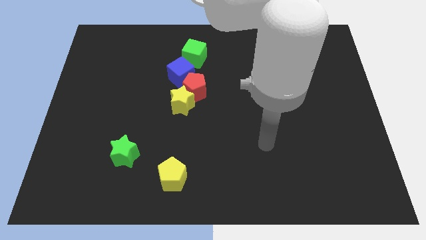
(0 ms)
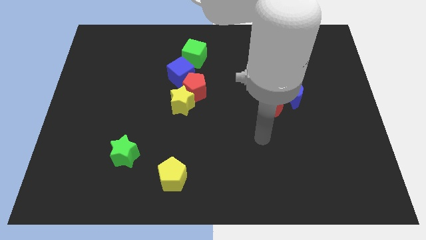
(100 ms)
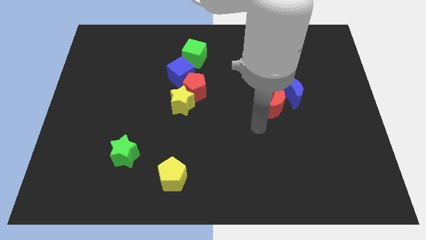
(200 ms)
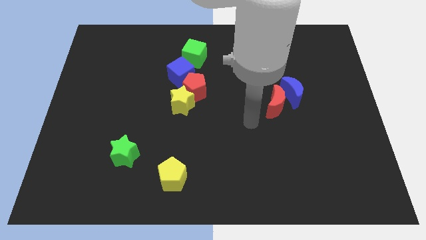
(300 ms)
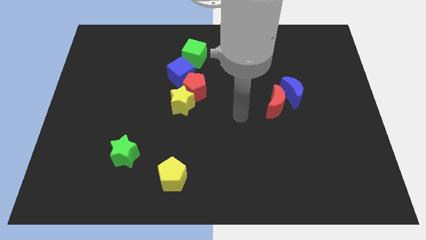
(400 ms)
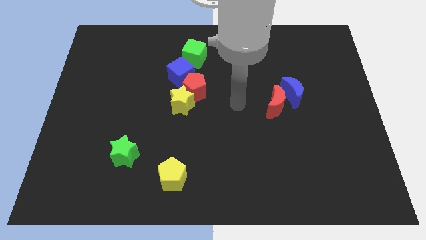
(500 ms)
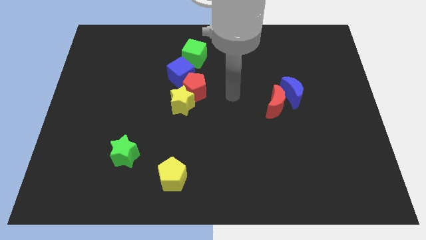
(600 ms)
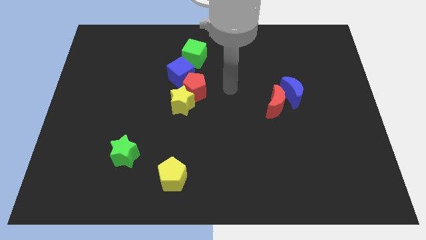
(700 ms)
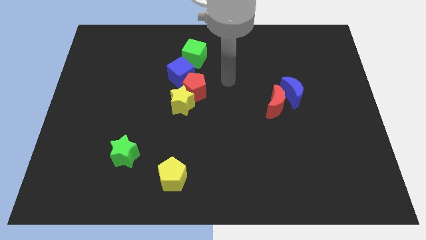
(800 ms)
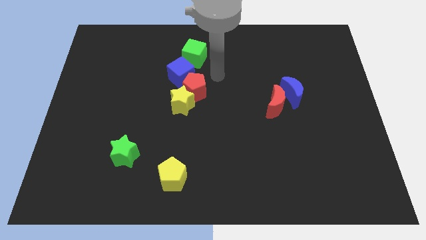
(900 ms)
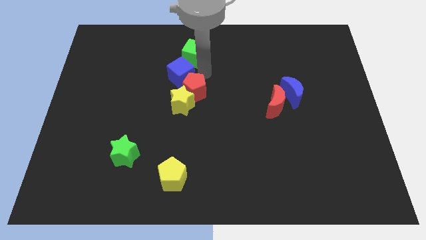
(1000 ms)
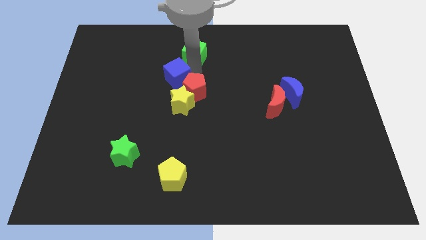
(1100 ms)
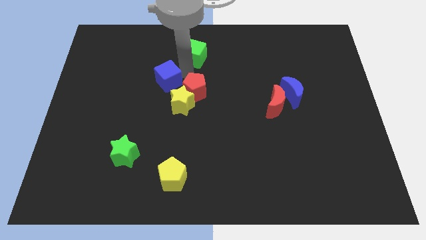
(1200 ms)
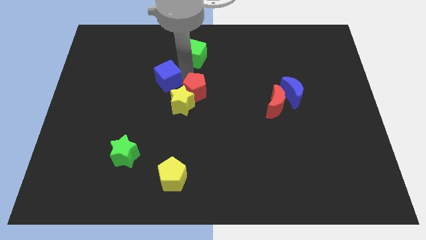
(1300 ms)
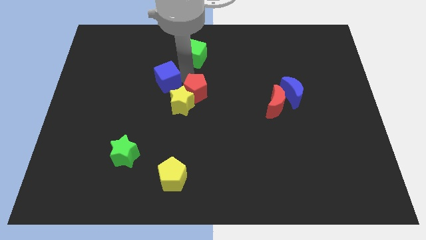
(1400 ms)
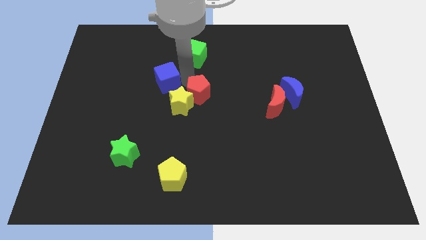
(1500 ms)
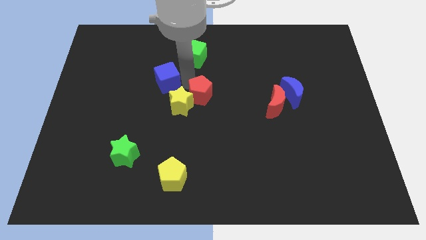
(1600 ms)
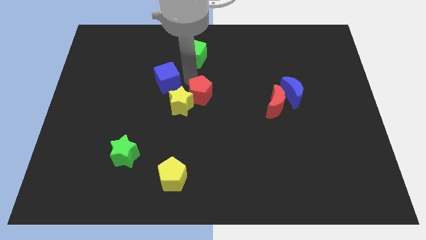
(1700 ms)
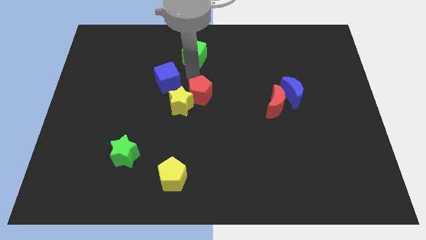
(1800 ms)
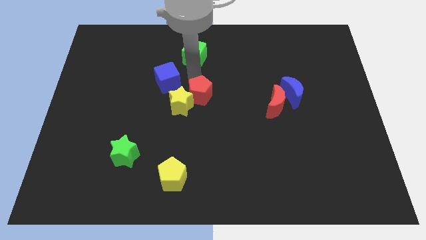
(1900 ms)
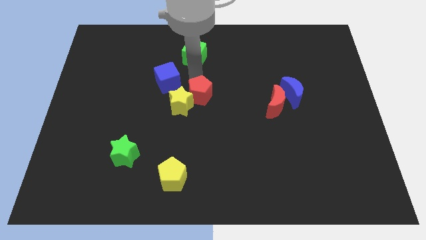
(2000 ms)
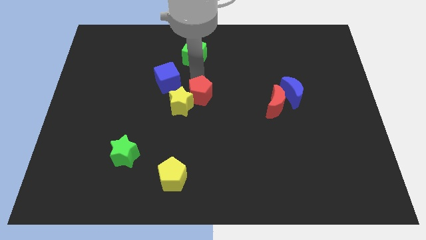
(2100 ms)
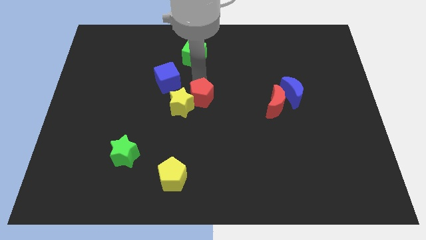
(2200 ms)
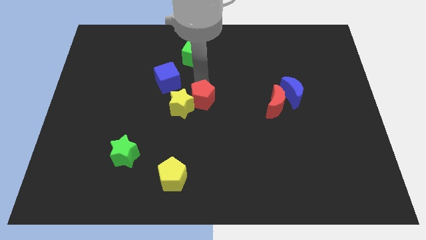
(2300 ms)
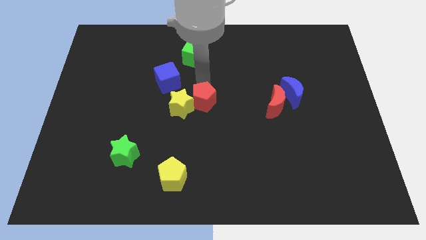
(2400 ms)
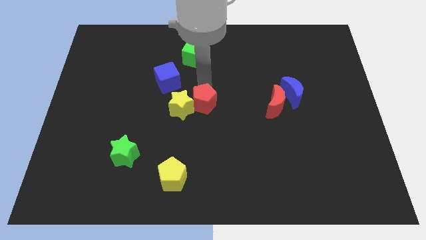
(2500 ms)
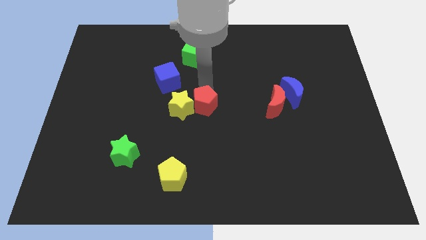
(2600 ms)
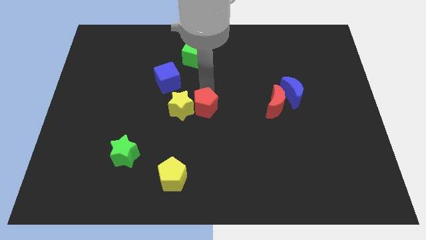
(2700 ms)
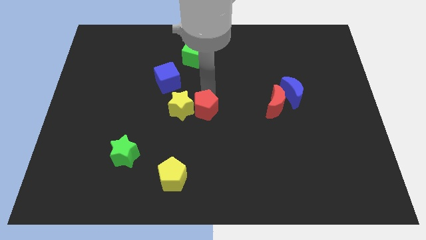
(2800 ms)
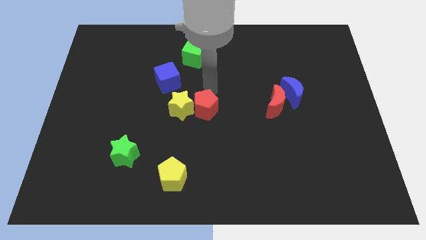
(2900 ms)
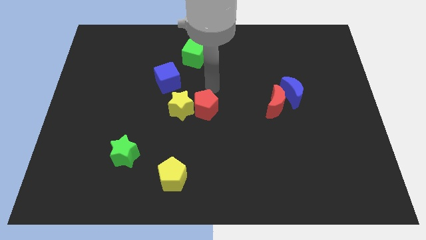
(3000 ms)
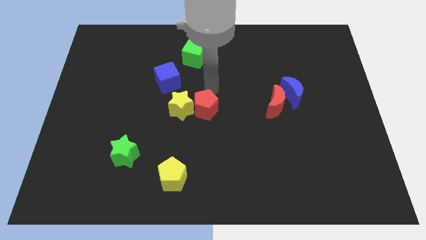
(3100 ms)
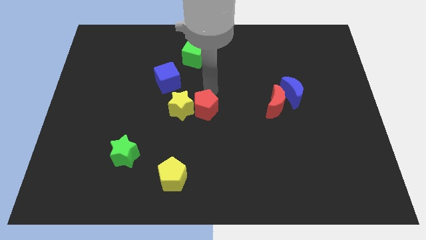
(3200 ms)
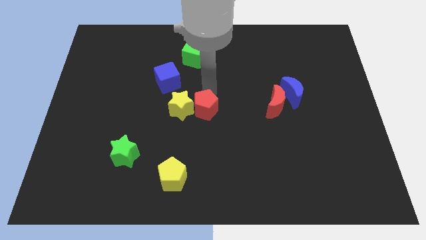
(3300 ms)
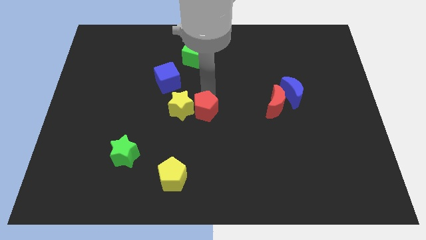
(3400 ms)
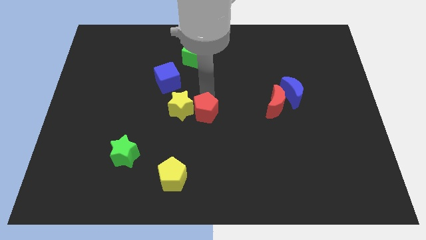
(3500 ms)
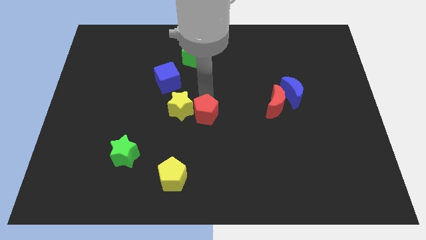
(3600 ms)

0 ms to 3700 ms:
slide the red pentagon downwards a little bit

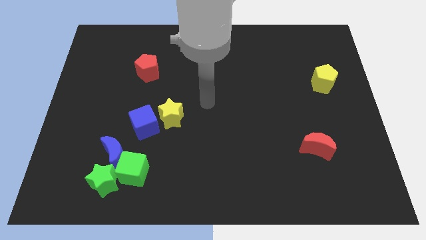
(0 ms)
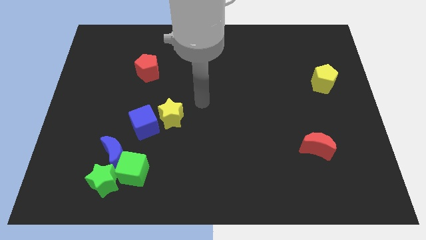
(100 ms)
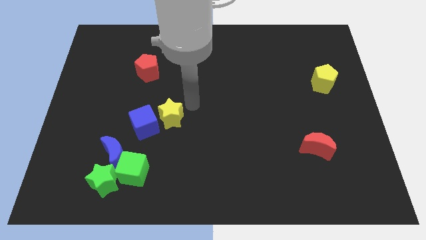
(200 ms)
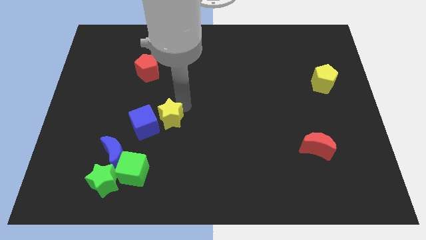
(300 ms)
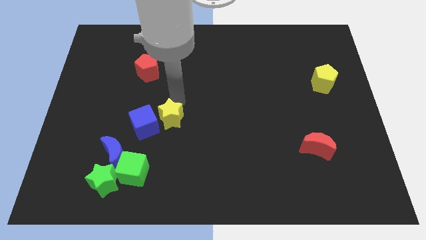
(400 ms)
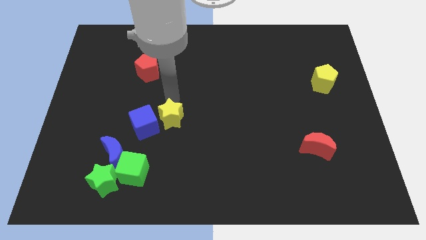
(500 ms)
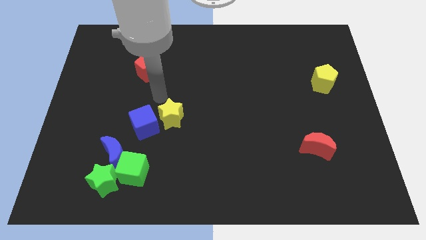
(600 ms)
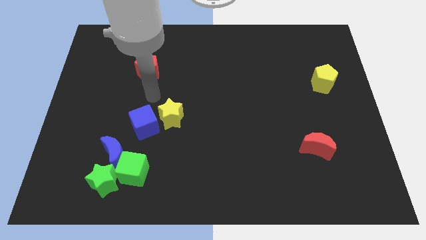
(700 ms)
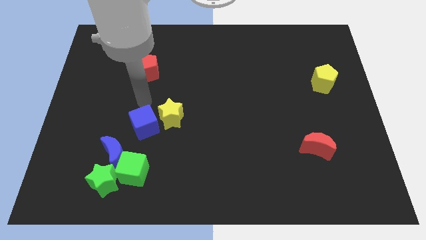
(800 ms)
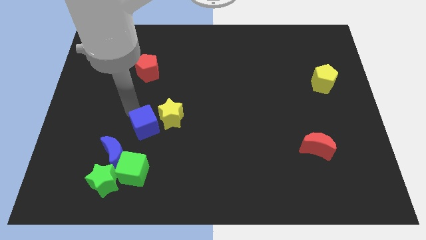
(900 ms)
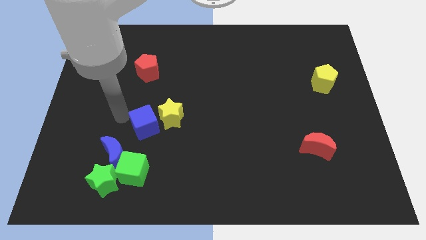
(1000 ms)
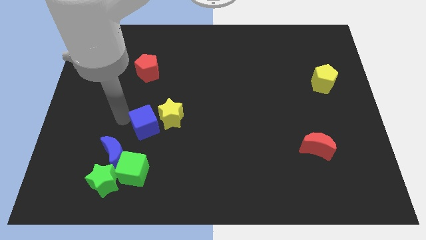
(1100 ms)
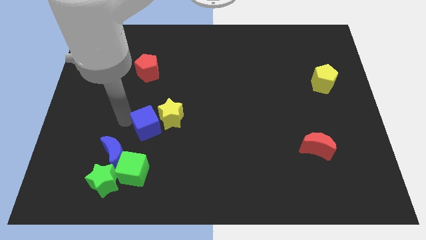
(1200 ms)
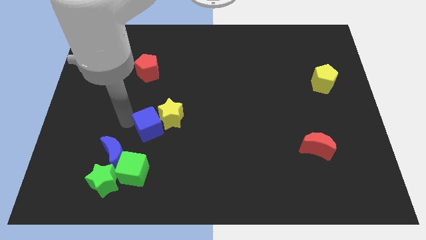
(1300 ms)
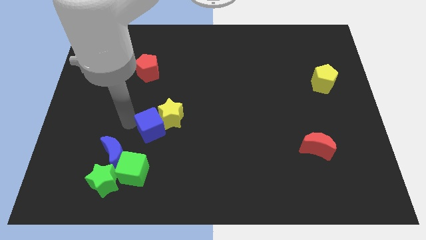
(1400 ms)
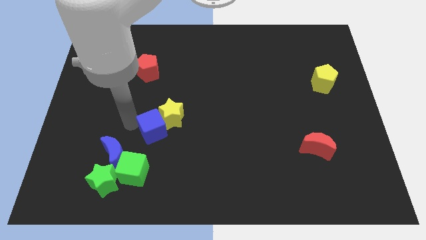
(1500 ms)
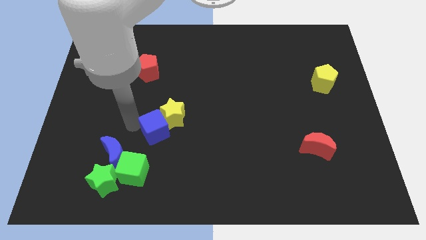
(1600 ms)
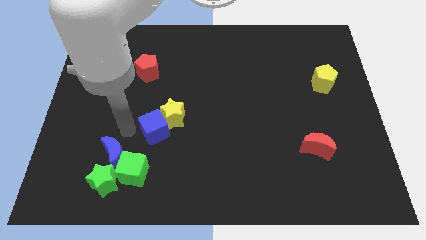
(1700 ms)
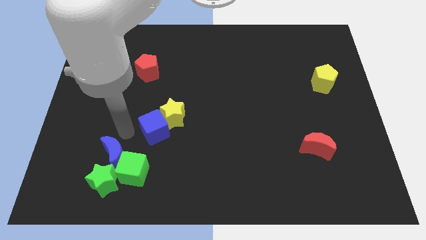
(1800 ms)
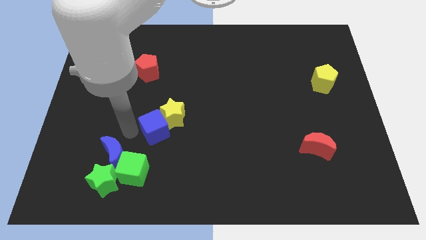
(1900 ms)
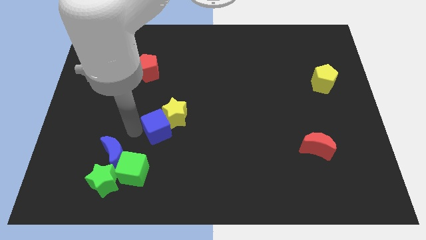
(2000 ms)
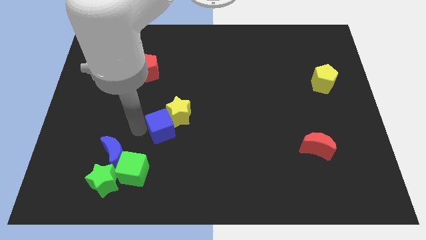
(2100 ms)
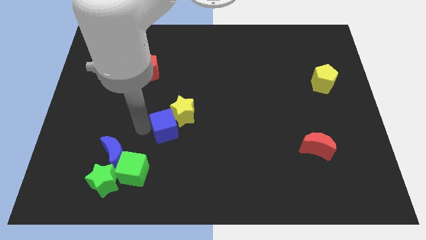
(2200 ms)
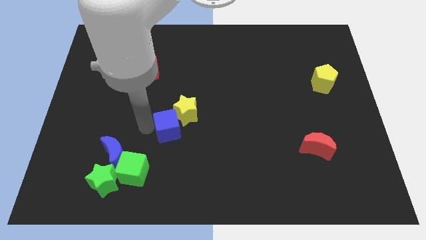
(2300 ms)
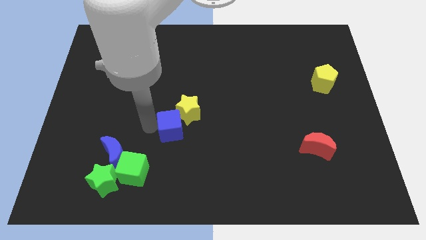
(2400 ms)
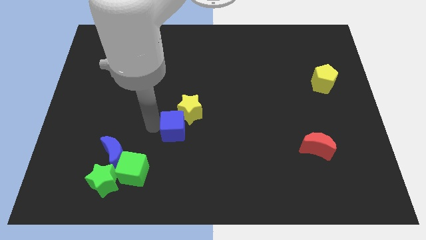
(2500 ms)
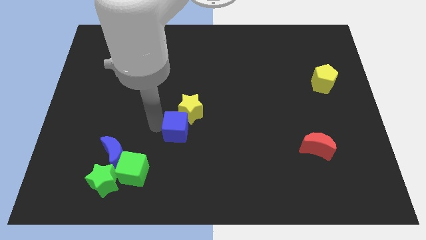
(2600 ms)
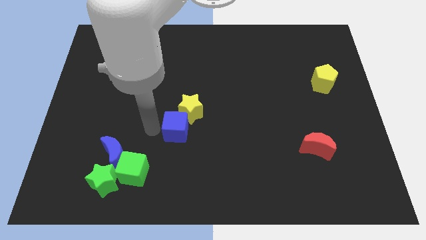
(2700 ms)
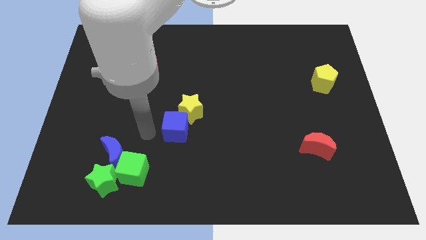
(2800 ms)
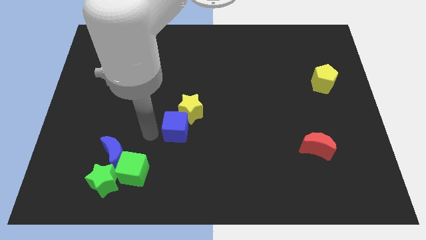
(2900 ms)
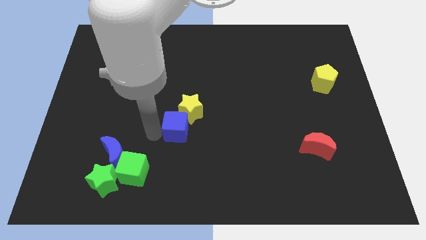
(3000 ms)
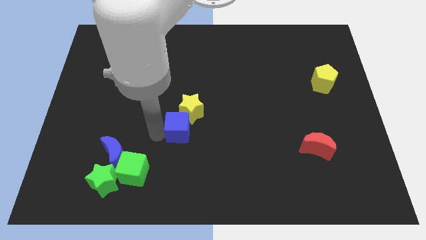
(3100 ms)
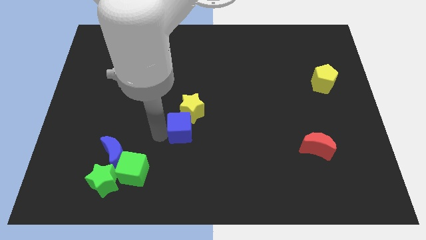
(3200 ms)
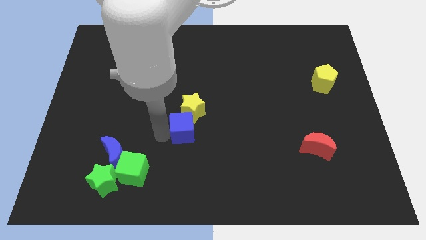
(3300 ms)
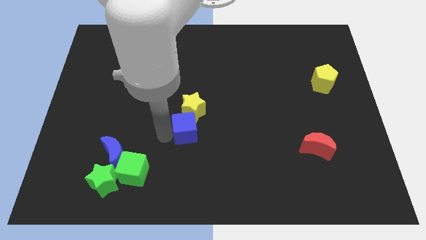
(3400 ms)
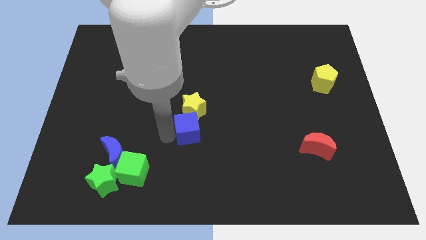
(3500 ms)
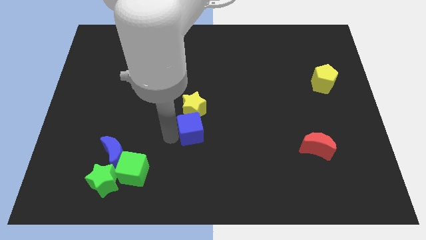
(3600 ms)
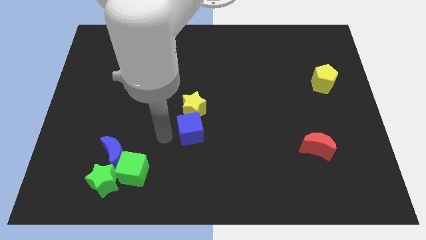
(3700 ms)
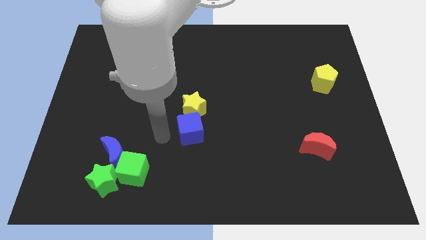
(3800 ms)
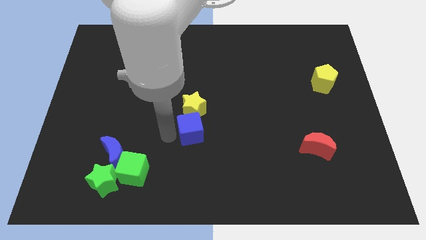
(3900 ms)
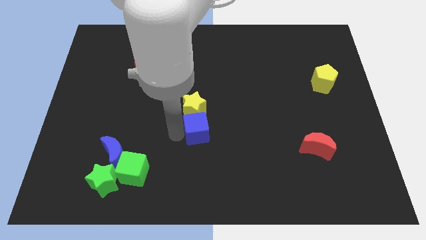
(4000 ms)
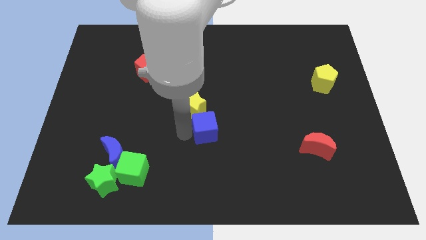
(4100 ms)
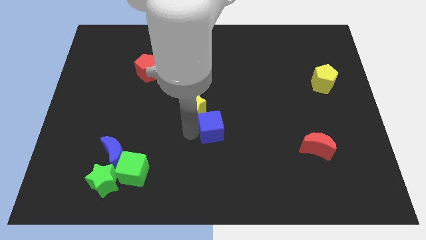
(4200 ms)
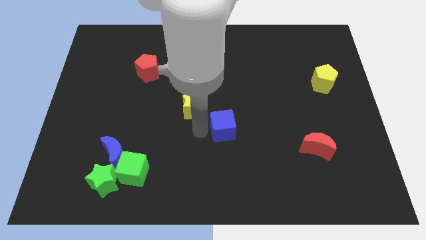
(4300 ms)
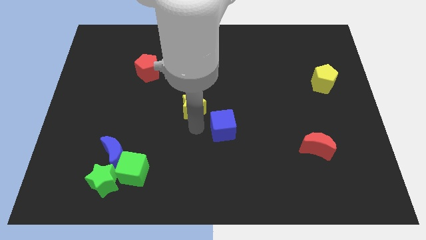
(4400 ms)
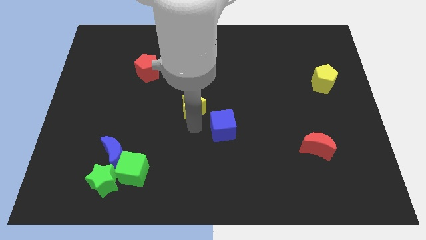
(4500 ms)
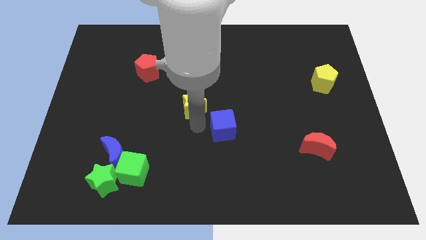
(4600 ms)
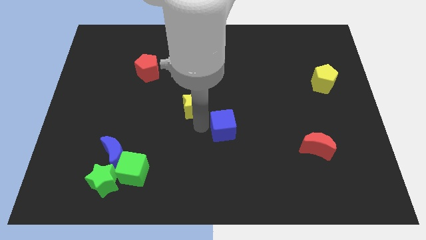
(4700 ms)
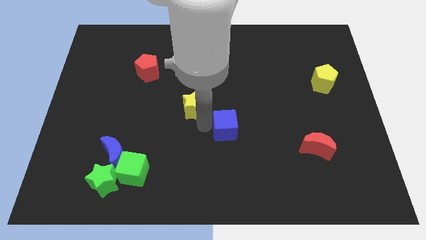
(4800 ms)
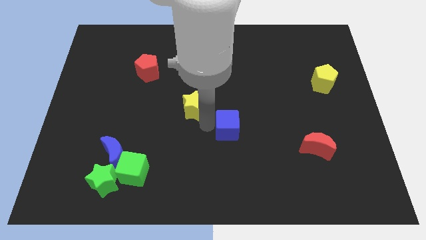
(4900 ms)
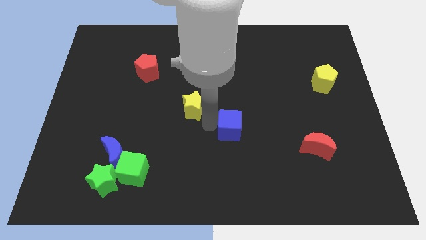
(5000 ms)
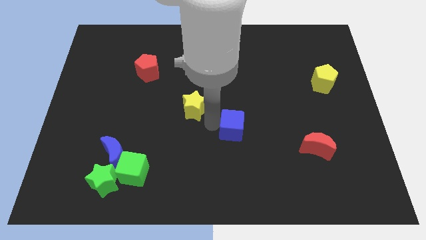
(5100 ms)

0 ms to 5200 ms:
push the blue cube to the right

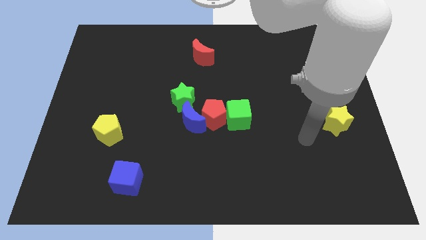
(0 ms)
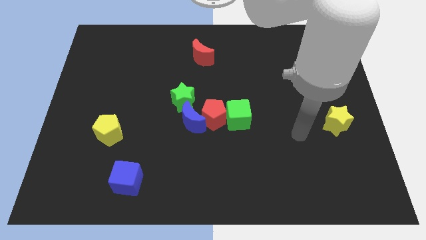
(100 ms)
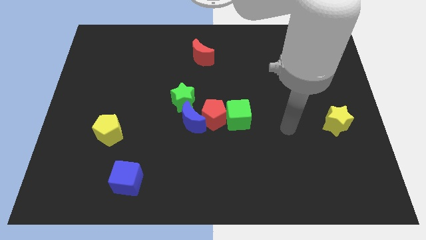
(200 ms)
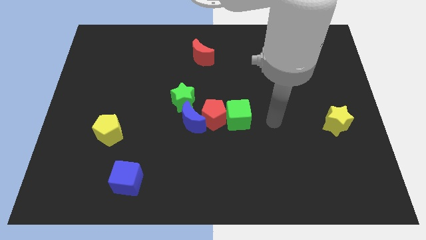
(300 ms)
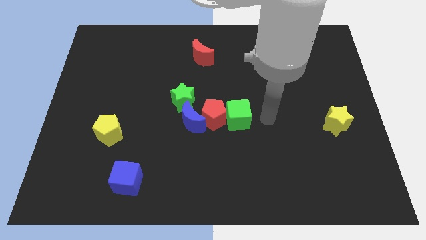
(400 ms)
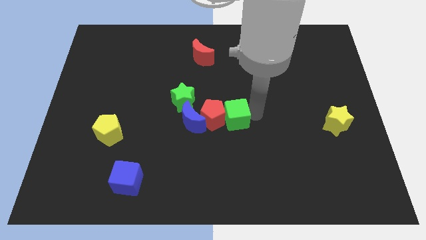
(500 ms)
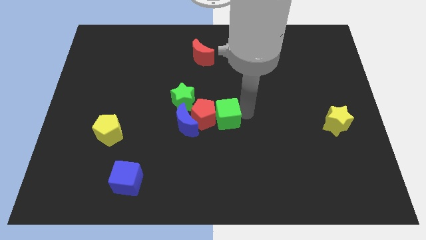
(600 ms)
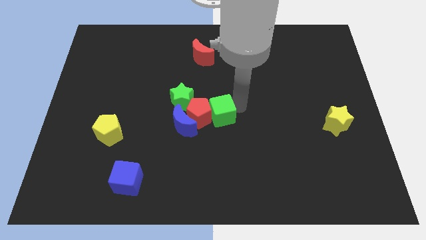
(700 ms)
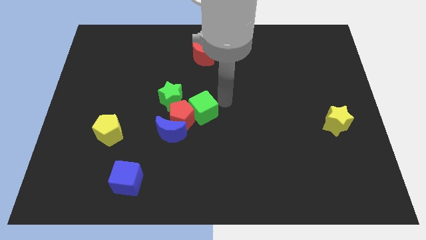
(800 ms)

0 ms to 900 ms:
move the red pentagon slightly left
